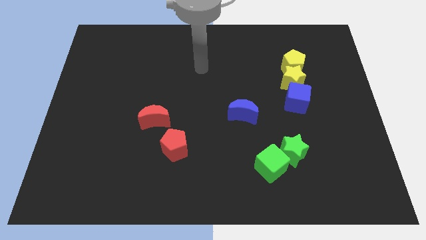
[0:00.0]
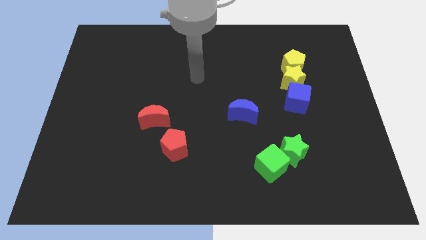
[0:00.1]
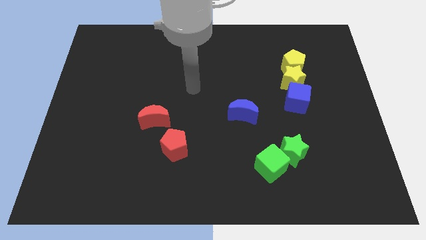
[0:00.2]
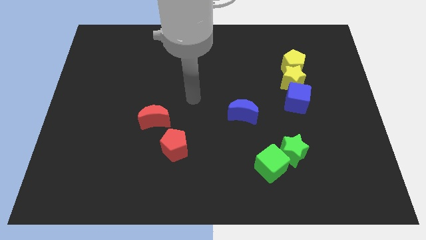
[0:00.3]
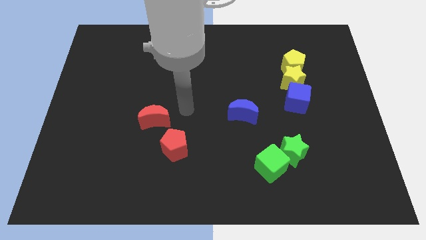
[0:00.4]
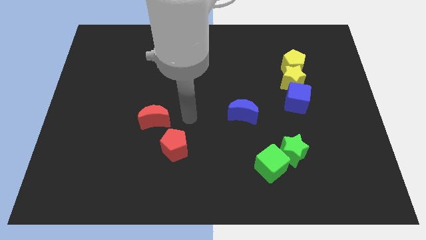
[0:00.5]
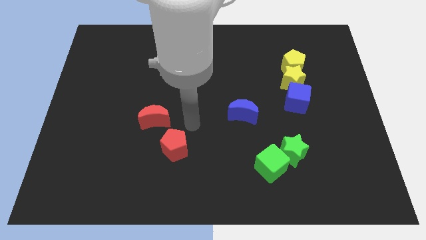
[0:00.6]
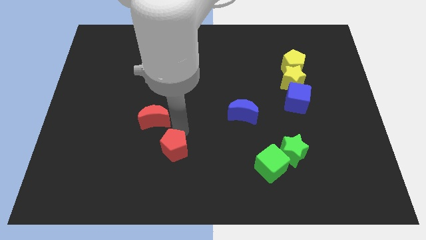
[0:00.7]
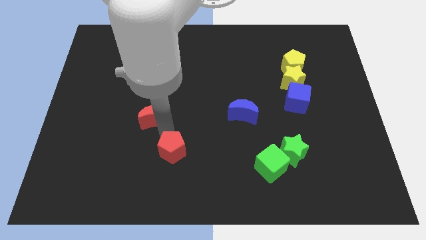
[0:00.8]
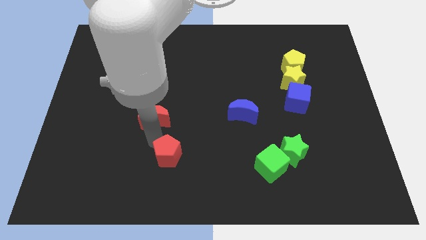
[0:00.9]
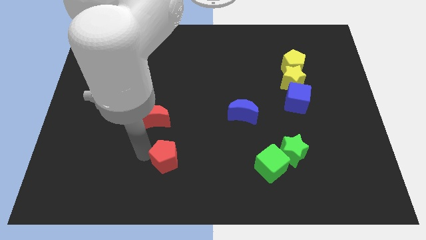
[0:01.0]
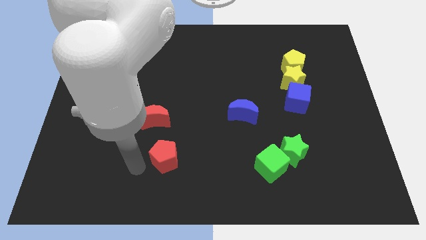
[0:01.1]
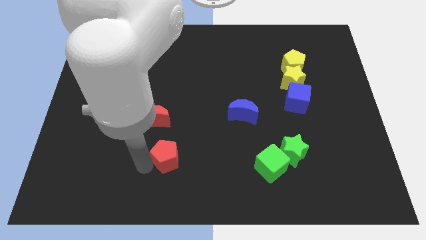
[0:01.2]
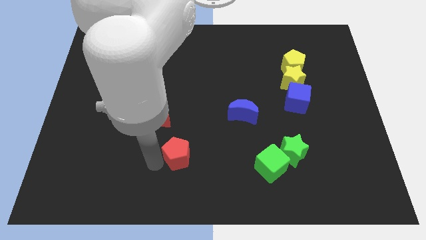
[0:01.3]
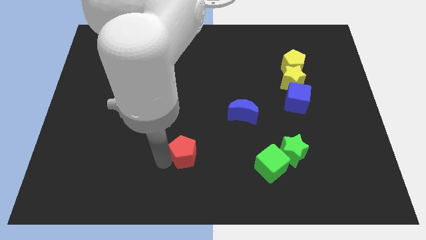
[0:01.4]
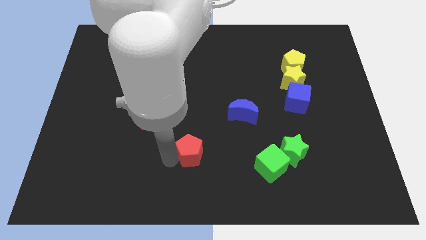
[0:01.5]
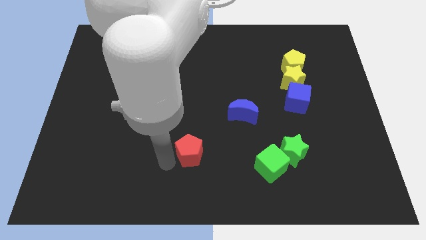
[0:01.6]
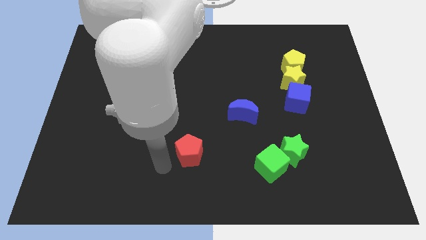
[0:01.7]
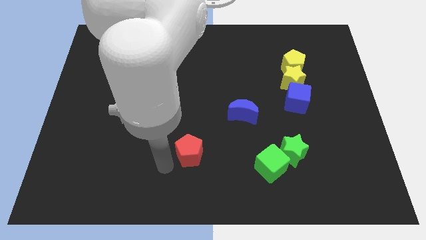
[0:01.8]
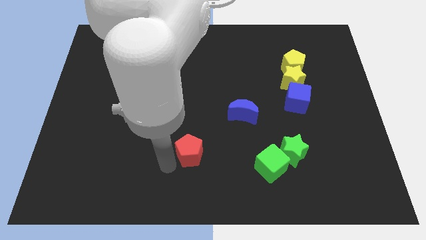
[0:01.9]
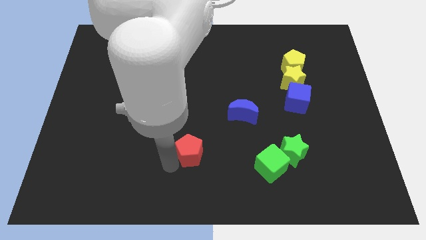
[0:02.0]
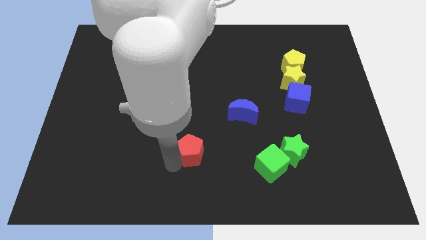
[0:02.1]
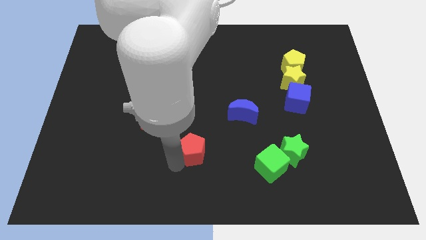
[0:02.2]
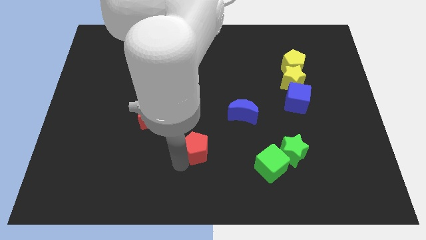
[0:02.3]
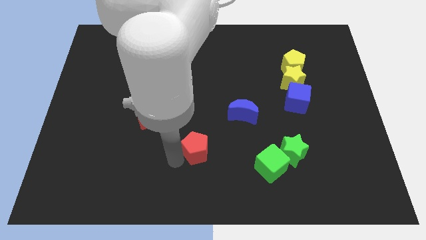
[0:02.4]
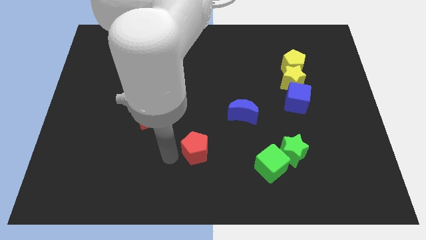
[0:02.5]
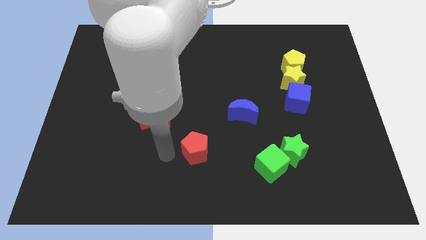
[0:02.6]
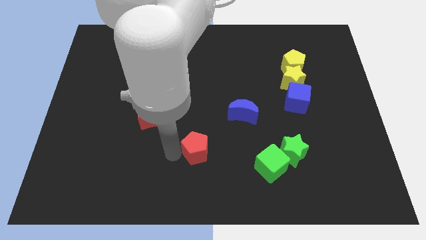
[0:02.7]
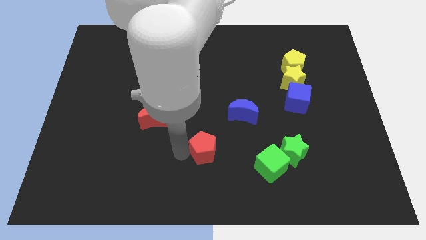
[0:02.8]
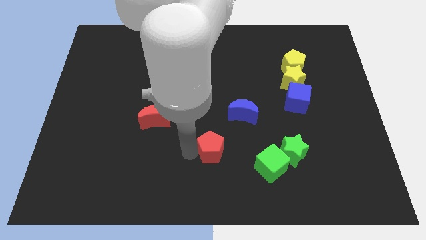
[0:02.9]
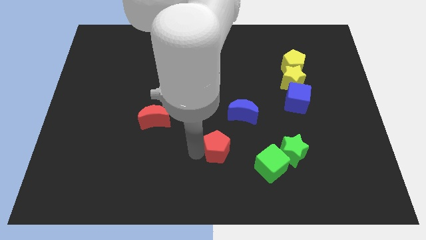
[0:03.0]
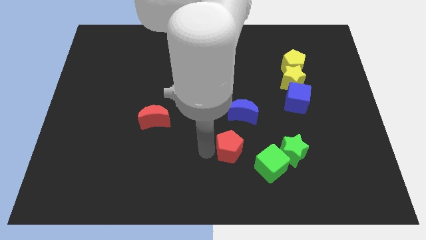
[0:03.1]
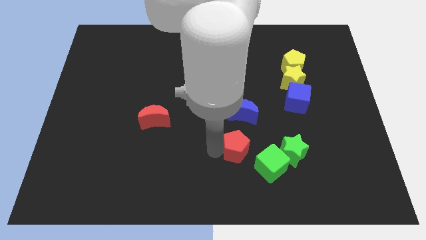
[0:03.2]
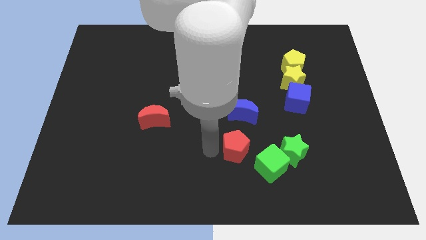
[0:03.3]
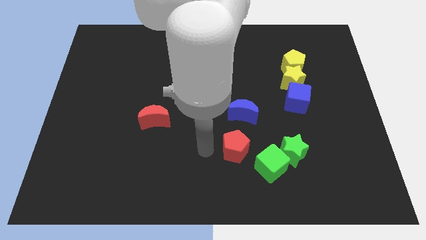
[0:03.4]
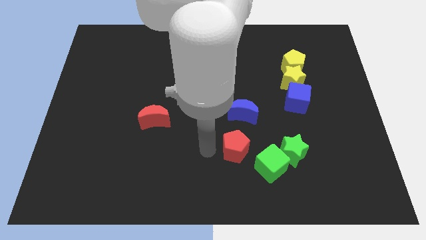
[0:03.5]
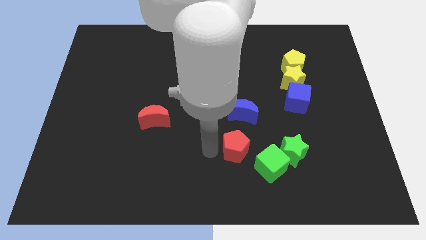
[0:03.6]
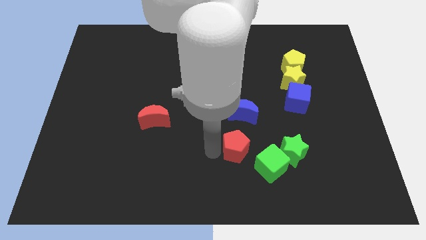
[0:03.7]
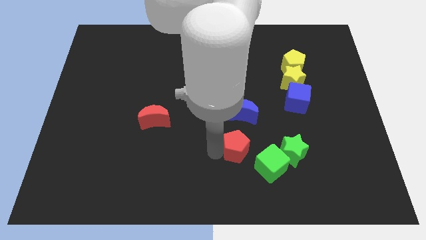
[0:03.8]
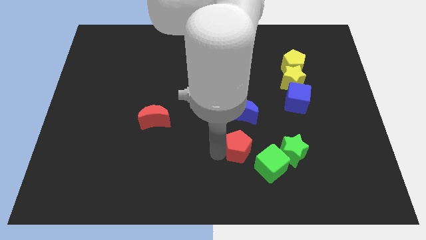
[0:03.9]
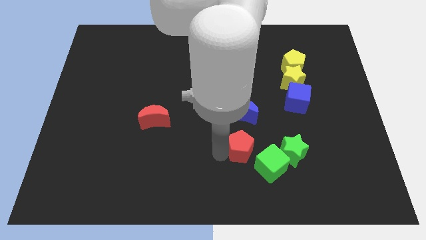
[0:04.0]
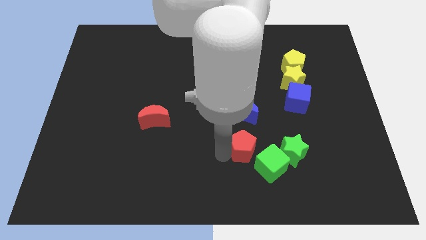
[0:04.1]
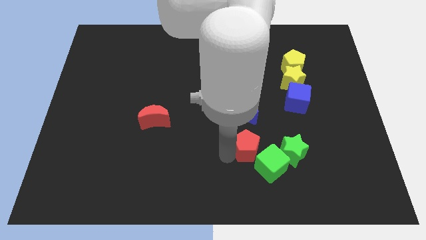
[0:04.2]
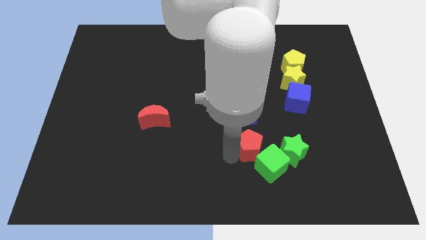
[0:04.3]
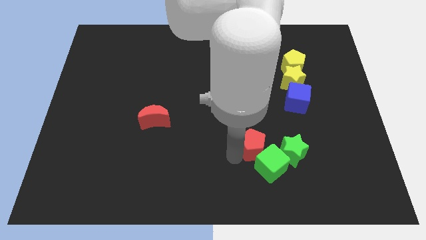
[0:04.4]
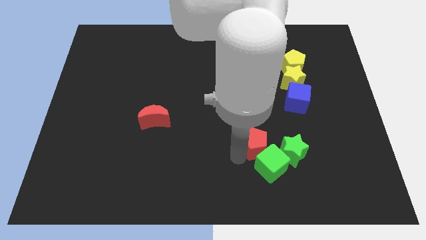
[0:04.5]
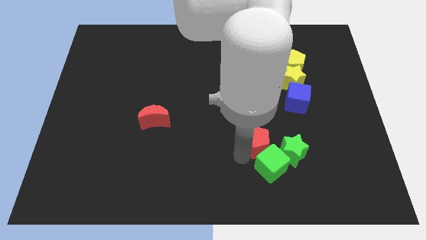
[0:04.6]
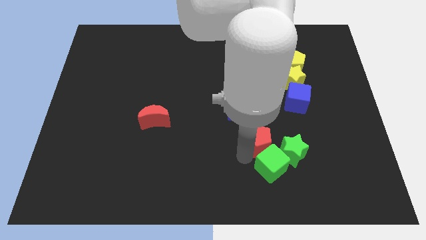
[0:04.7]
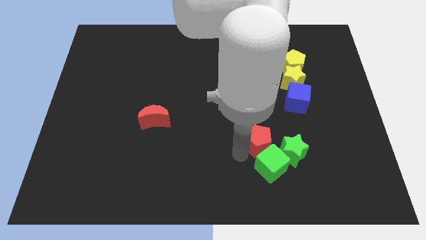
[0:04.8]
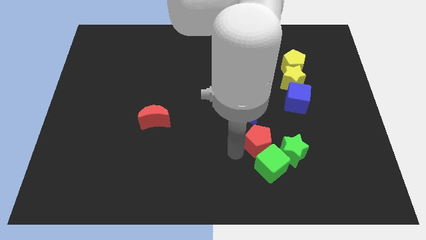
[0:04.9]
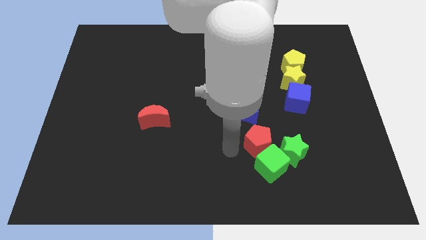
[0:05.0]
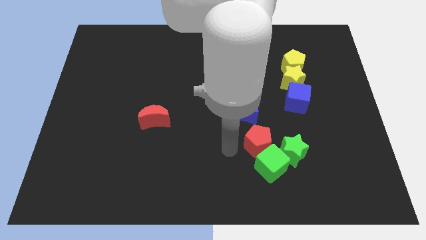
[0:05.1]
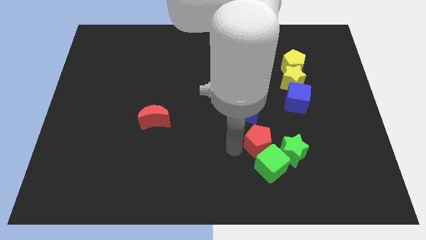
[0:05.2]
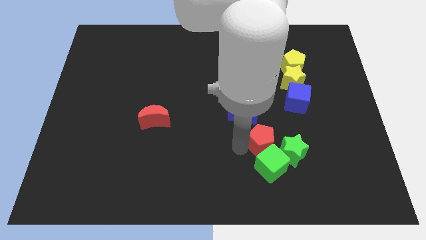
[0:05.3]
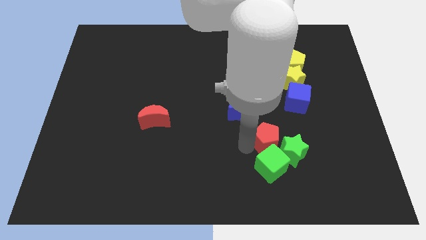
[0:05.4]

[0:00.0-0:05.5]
push the red pentagon right

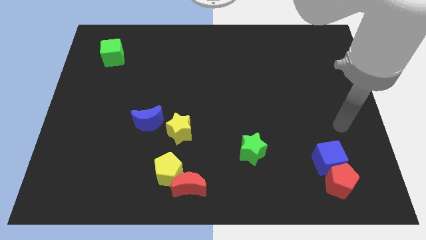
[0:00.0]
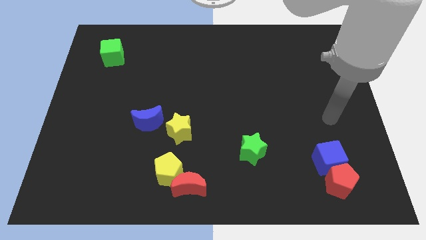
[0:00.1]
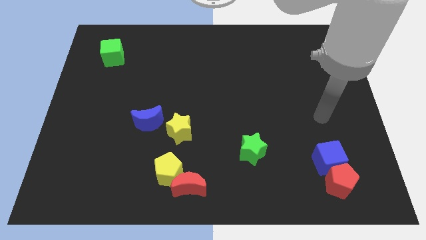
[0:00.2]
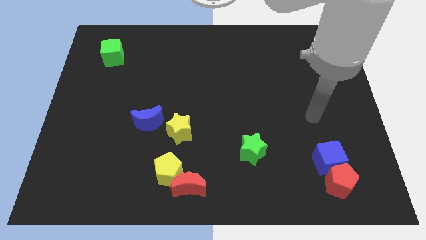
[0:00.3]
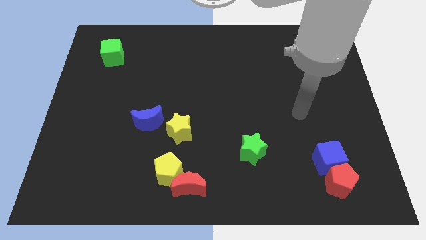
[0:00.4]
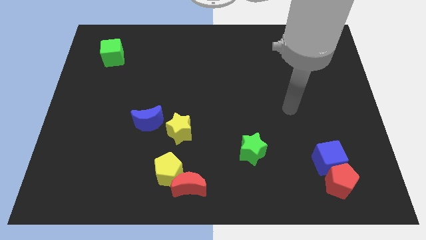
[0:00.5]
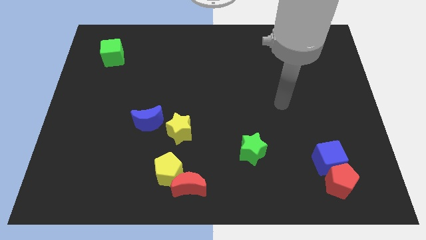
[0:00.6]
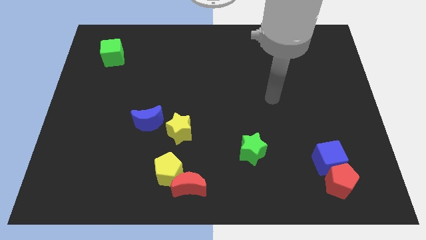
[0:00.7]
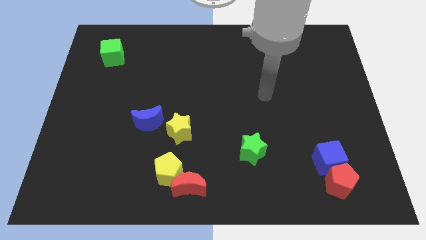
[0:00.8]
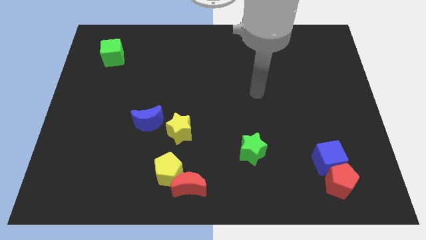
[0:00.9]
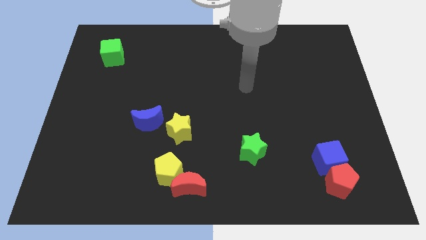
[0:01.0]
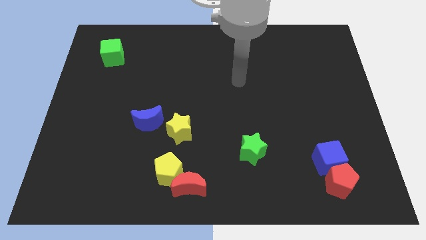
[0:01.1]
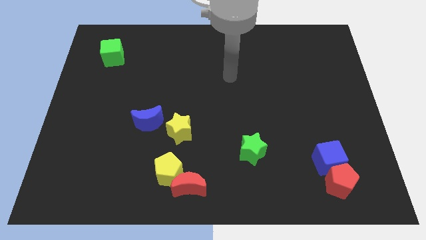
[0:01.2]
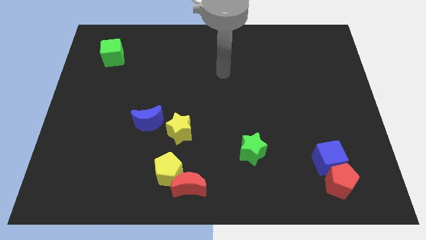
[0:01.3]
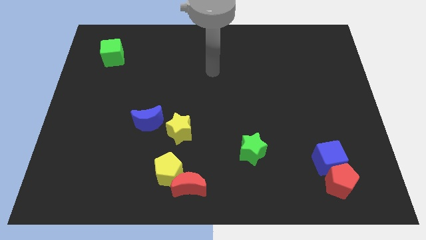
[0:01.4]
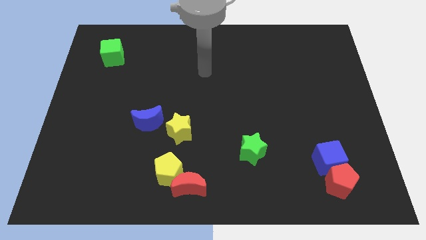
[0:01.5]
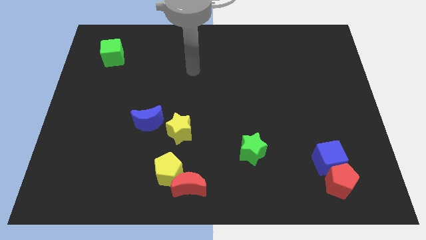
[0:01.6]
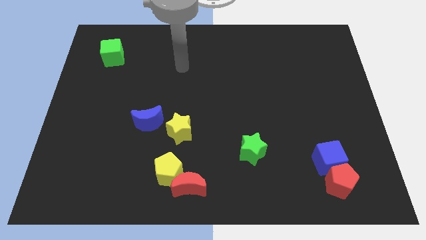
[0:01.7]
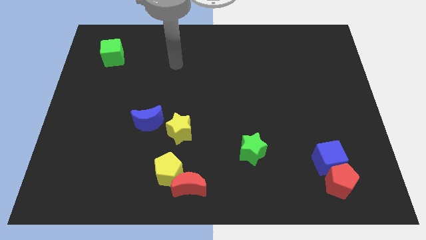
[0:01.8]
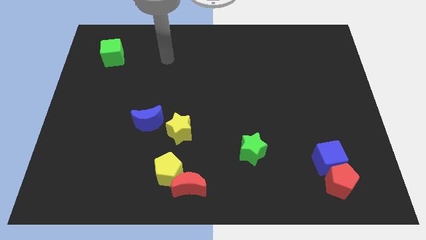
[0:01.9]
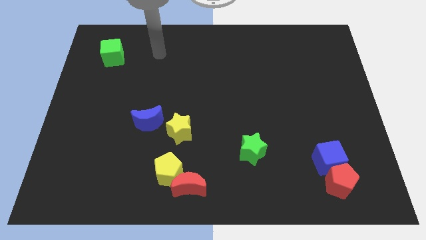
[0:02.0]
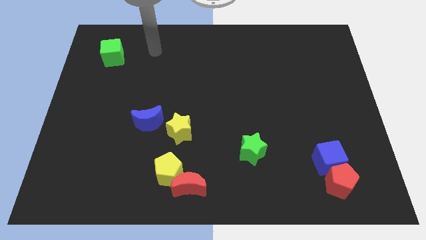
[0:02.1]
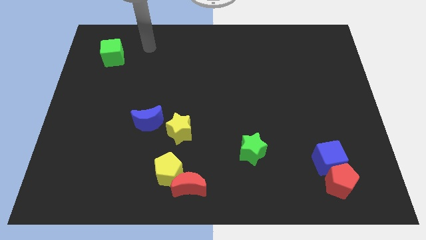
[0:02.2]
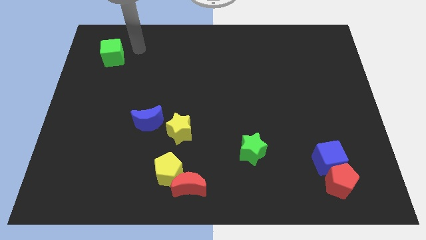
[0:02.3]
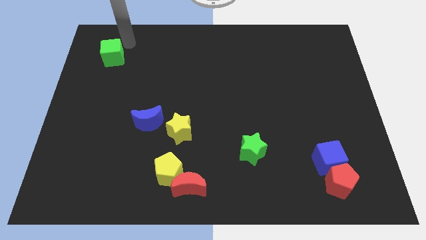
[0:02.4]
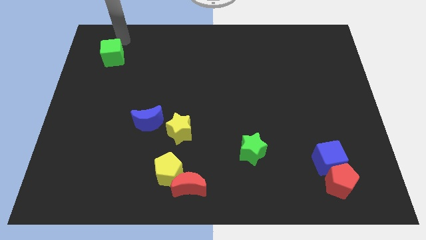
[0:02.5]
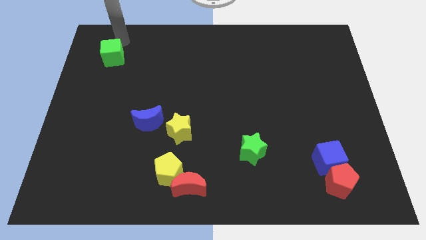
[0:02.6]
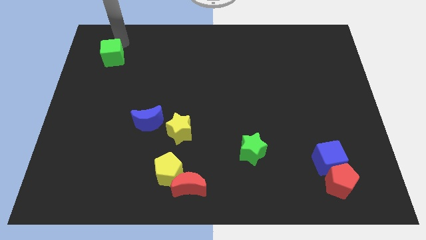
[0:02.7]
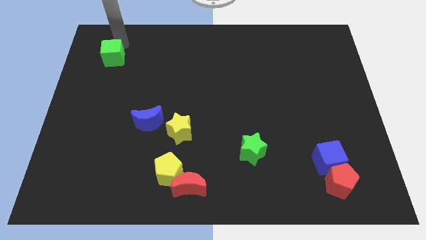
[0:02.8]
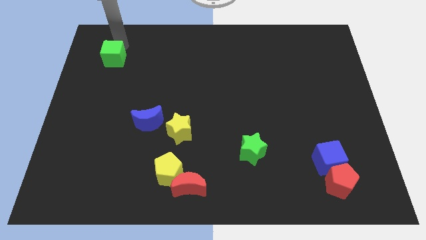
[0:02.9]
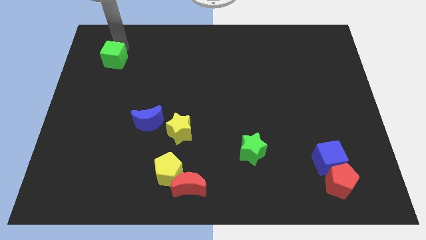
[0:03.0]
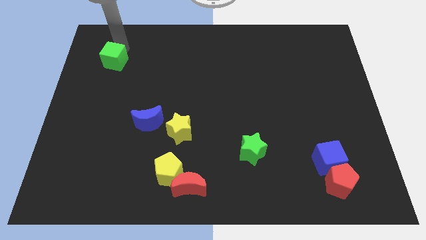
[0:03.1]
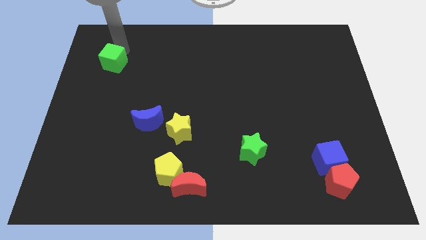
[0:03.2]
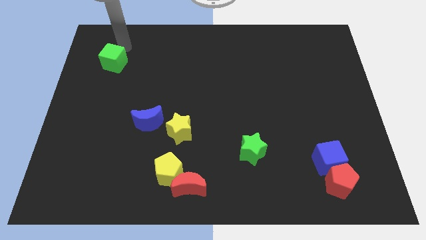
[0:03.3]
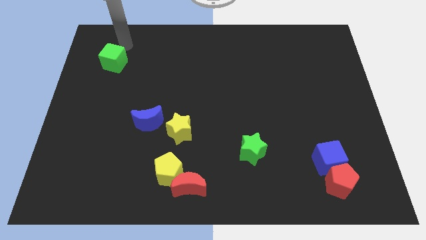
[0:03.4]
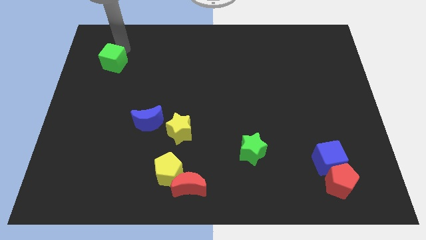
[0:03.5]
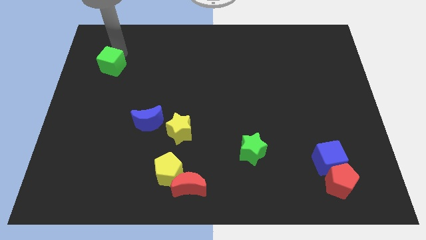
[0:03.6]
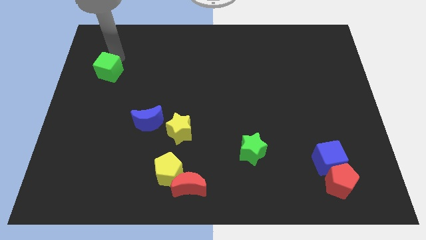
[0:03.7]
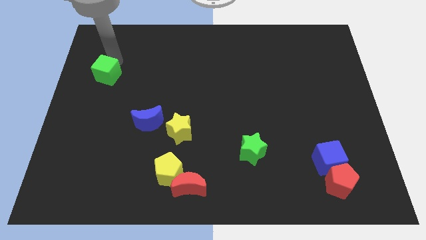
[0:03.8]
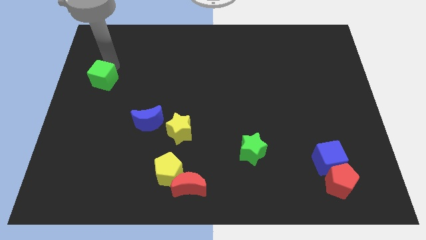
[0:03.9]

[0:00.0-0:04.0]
push the green cube downwards a bit
